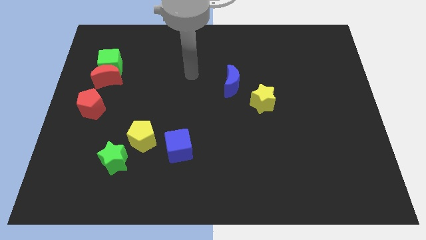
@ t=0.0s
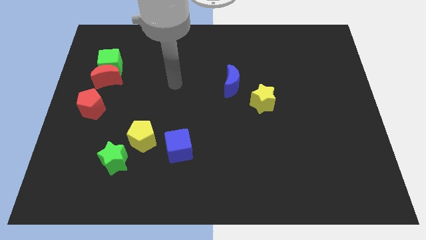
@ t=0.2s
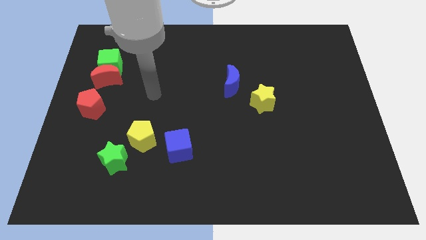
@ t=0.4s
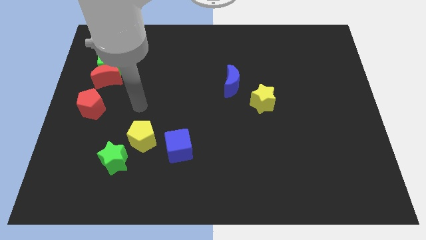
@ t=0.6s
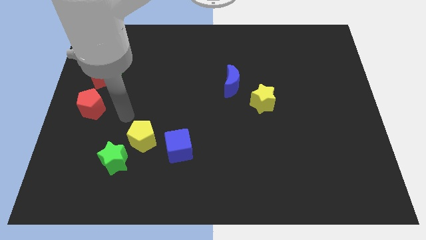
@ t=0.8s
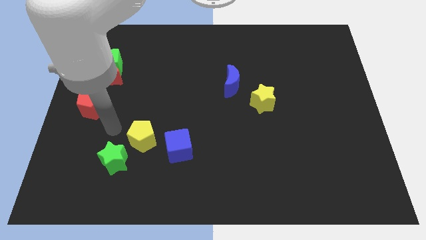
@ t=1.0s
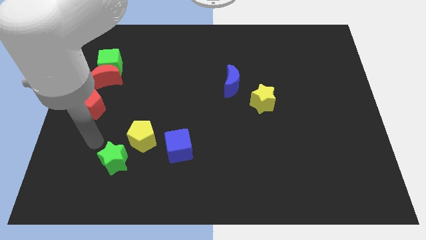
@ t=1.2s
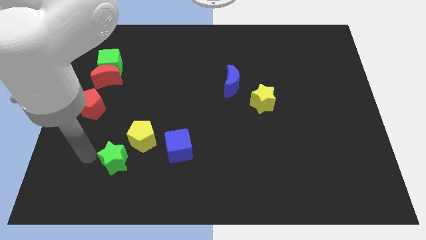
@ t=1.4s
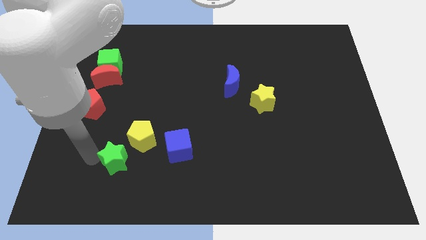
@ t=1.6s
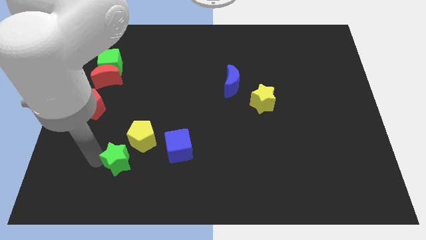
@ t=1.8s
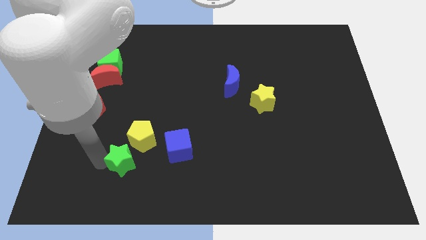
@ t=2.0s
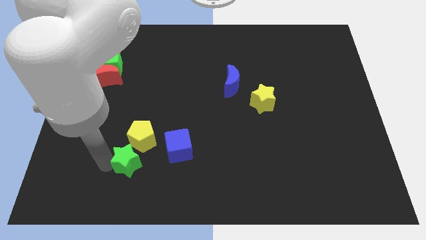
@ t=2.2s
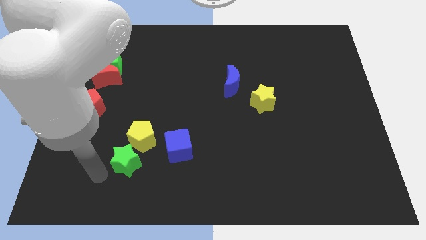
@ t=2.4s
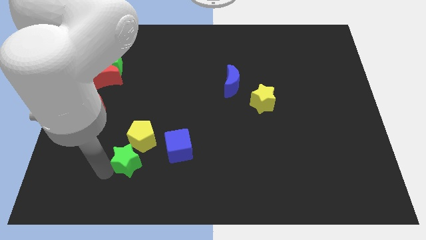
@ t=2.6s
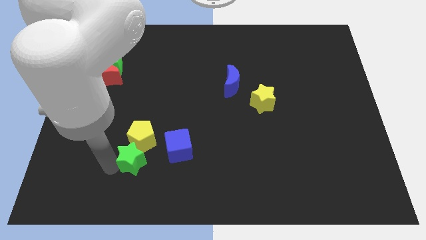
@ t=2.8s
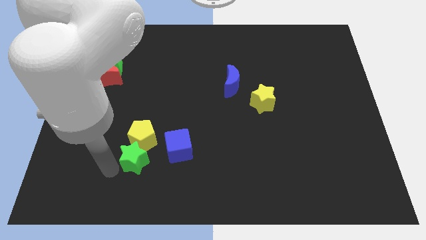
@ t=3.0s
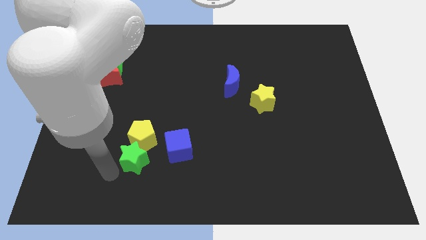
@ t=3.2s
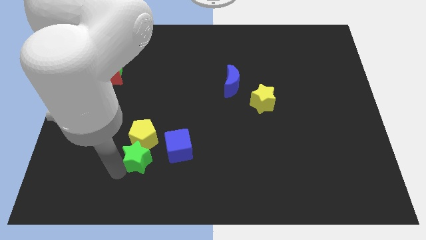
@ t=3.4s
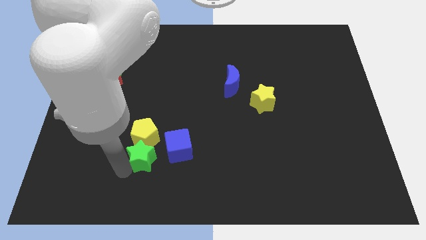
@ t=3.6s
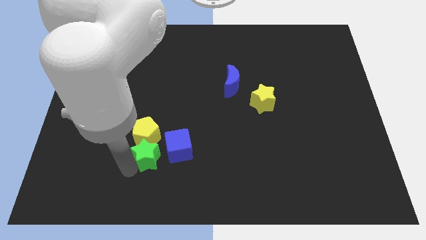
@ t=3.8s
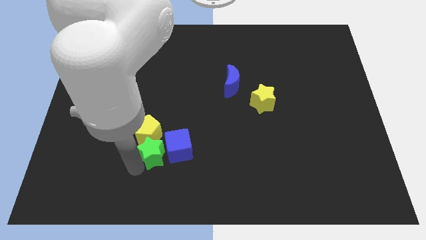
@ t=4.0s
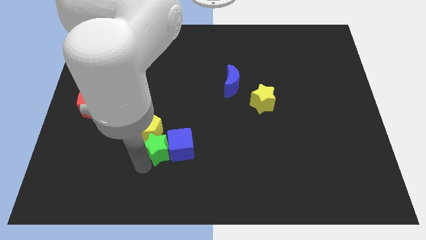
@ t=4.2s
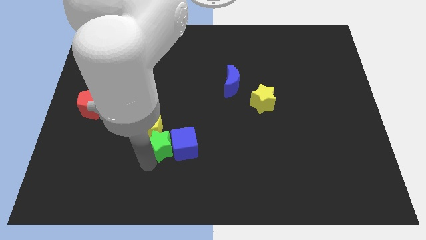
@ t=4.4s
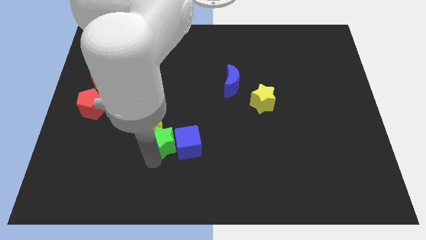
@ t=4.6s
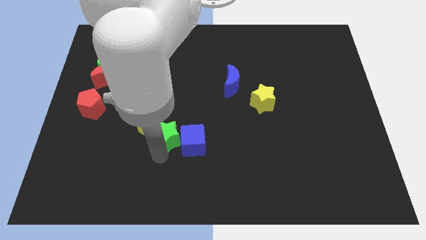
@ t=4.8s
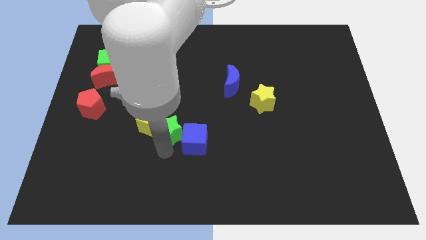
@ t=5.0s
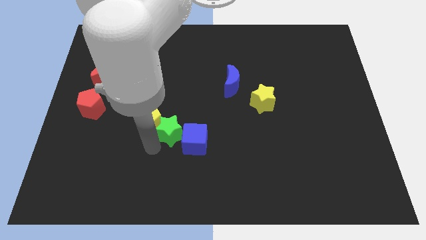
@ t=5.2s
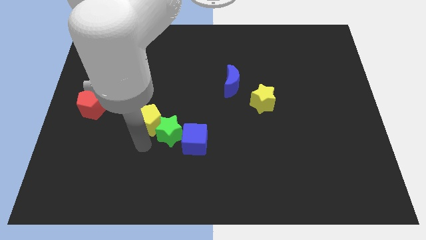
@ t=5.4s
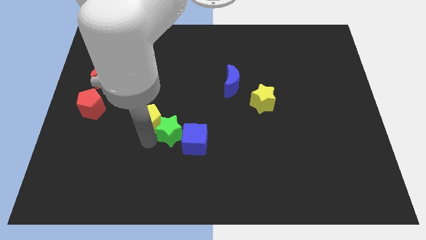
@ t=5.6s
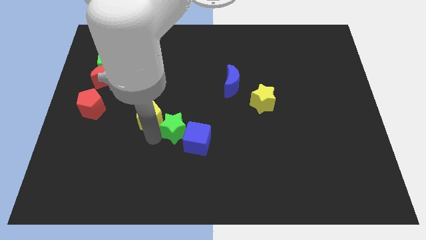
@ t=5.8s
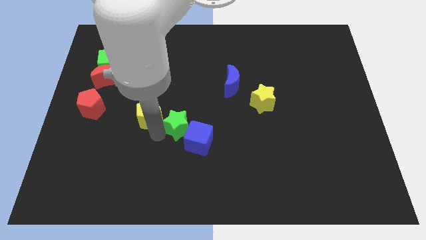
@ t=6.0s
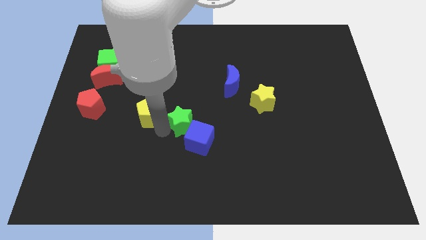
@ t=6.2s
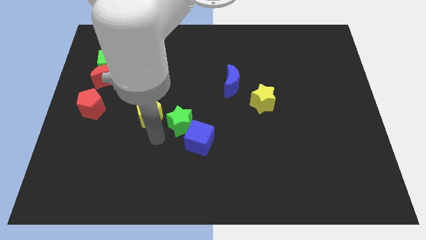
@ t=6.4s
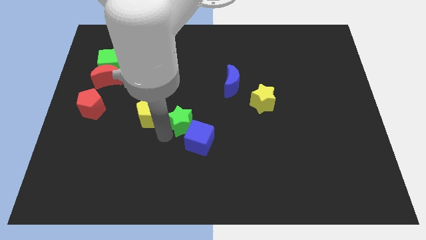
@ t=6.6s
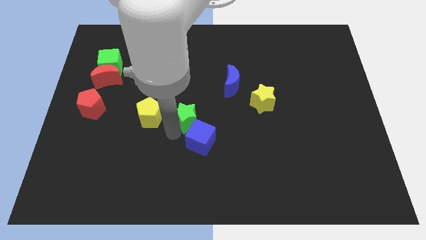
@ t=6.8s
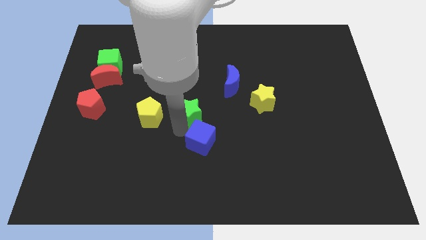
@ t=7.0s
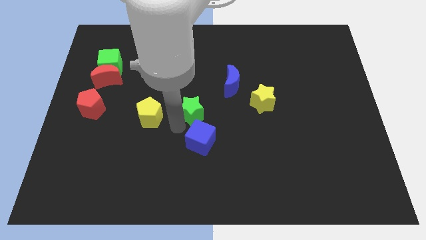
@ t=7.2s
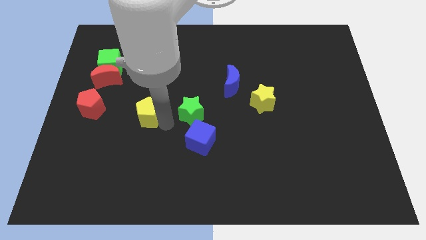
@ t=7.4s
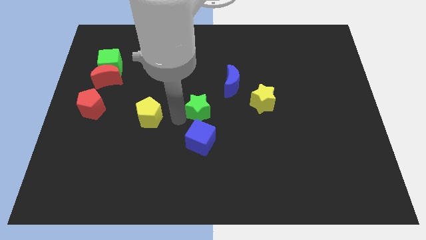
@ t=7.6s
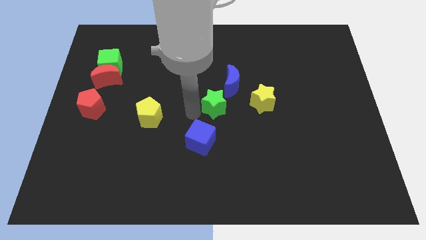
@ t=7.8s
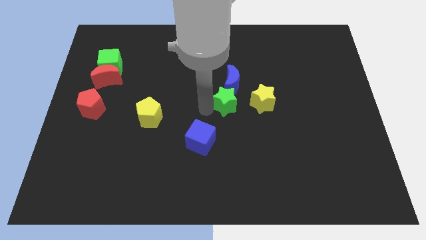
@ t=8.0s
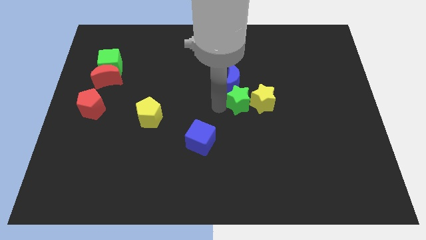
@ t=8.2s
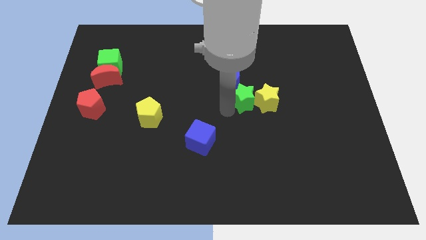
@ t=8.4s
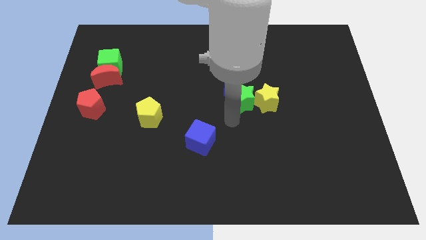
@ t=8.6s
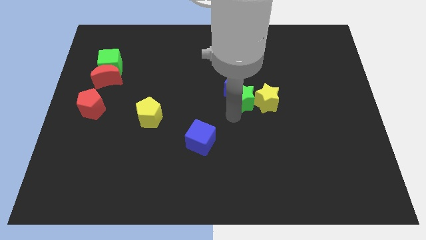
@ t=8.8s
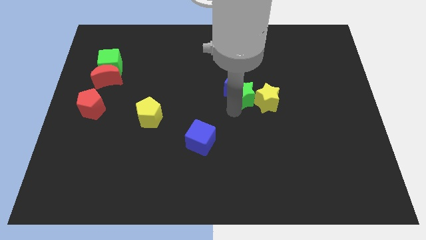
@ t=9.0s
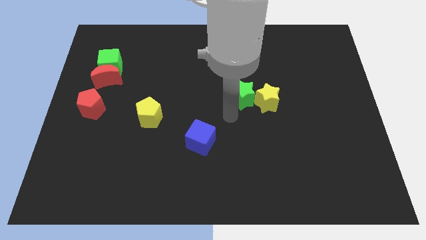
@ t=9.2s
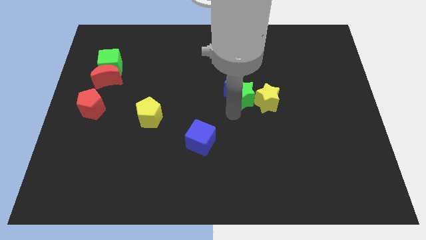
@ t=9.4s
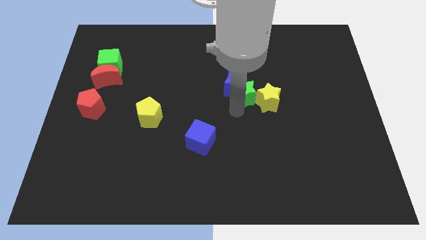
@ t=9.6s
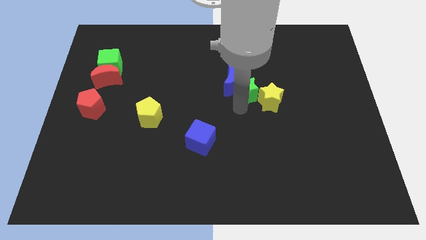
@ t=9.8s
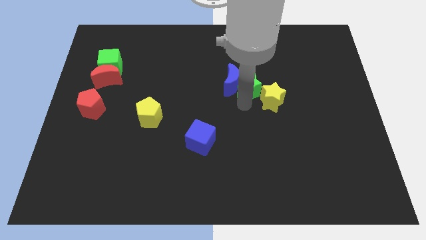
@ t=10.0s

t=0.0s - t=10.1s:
push the green star to the top right of the blue moon

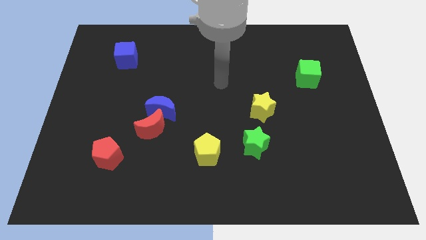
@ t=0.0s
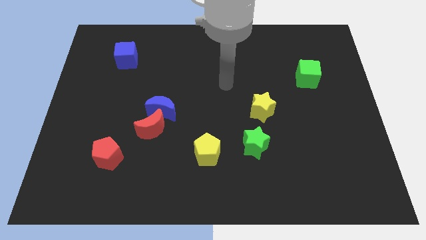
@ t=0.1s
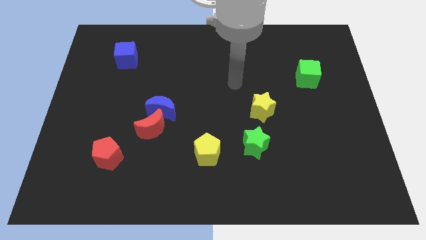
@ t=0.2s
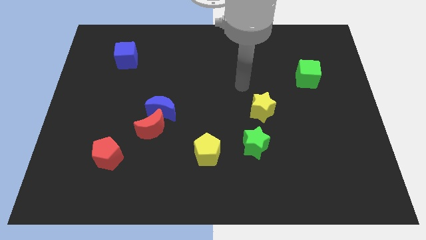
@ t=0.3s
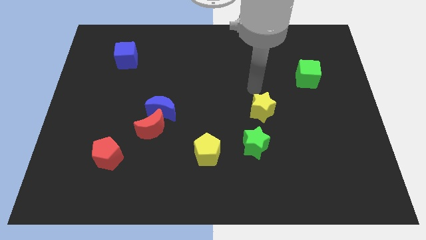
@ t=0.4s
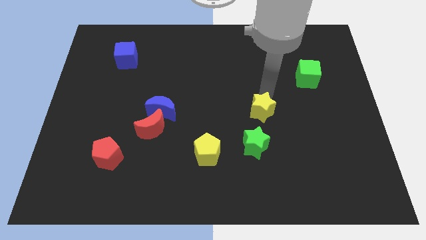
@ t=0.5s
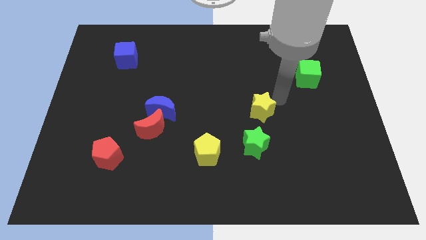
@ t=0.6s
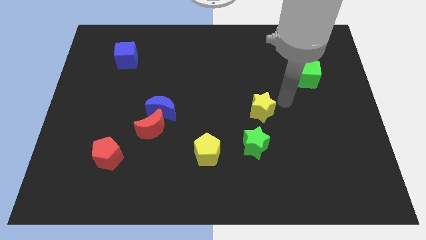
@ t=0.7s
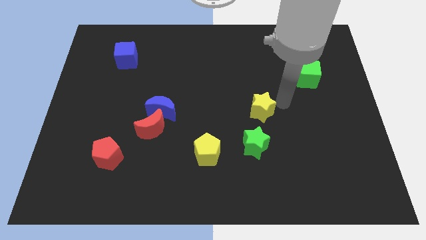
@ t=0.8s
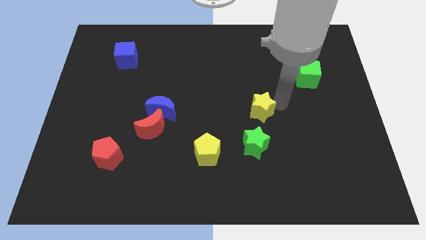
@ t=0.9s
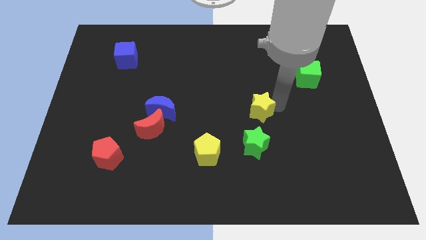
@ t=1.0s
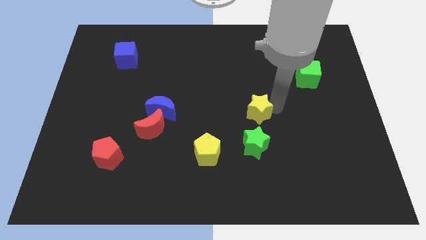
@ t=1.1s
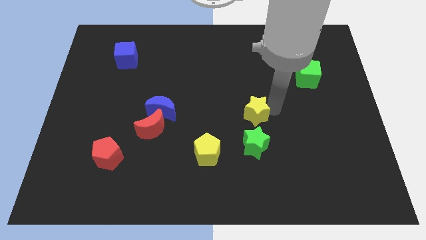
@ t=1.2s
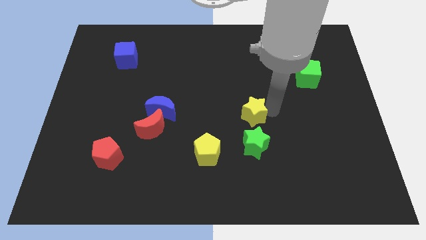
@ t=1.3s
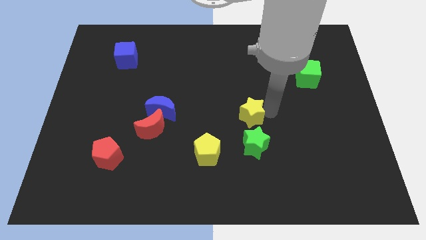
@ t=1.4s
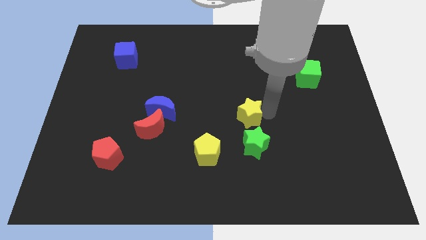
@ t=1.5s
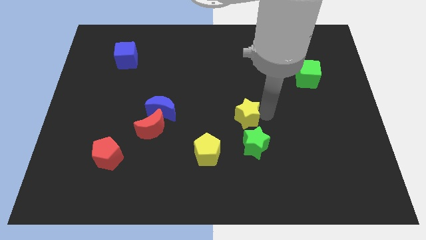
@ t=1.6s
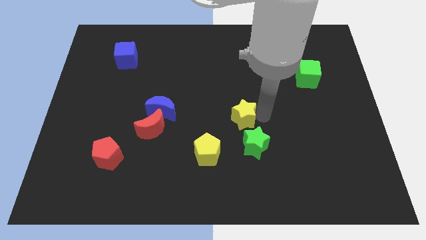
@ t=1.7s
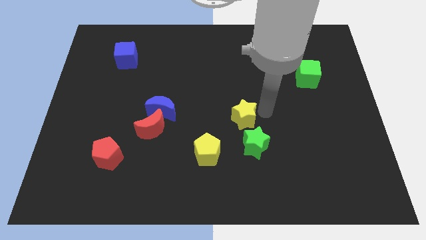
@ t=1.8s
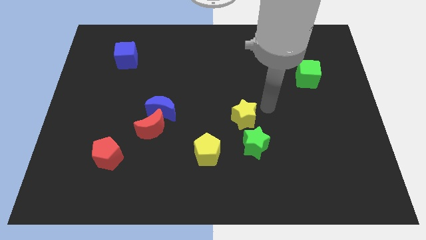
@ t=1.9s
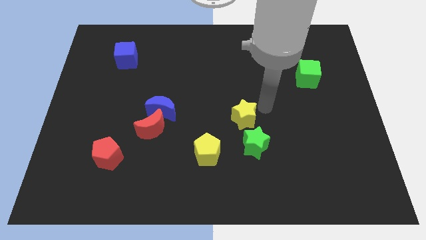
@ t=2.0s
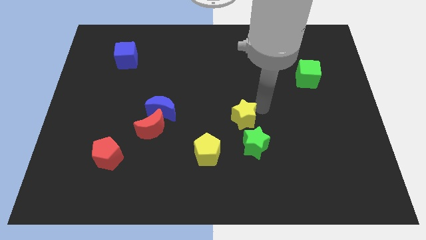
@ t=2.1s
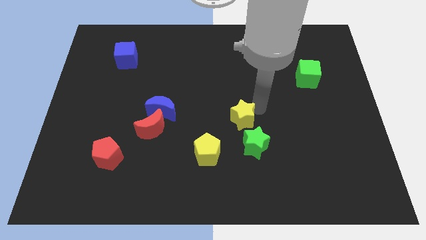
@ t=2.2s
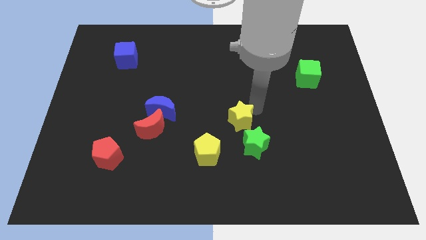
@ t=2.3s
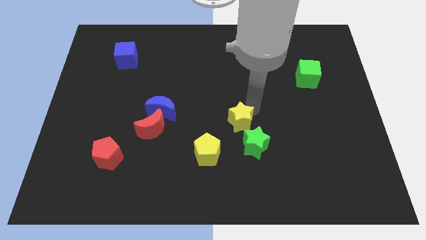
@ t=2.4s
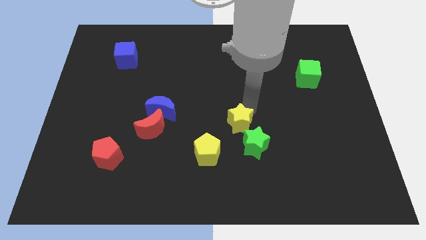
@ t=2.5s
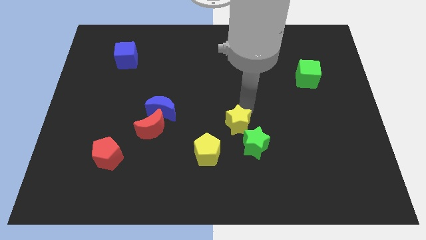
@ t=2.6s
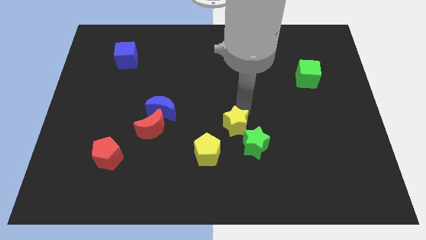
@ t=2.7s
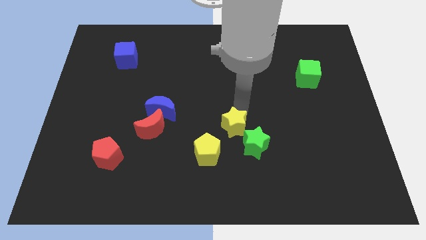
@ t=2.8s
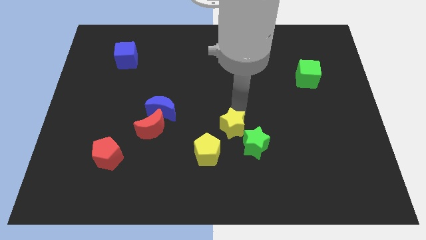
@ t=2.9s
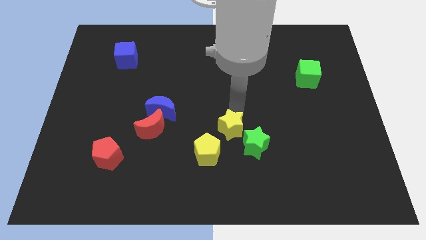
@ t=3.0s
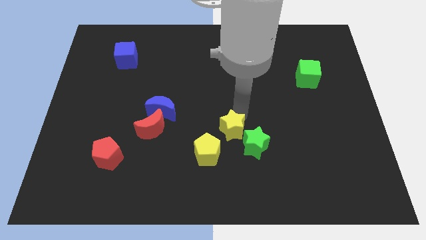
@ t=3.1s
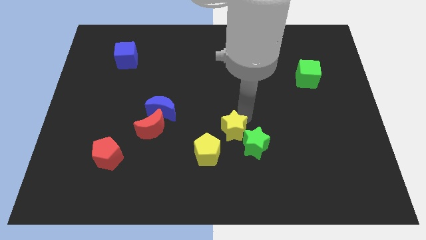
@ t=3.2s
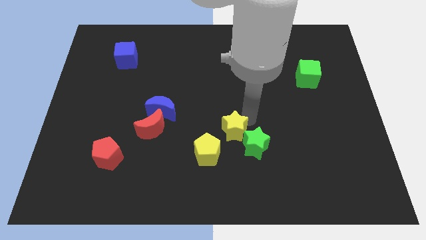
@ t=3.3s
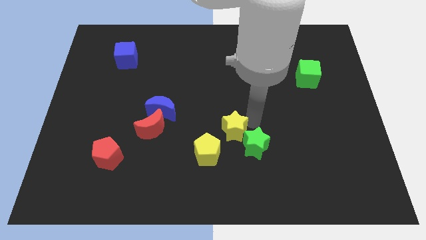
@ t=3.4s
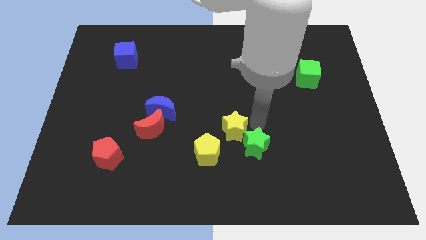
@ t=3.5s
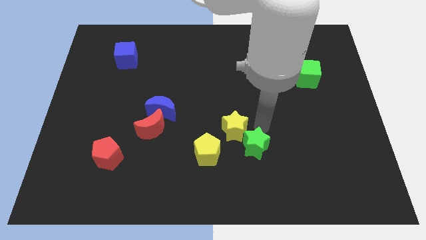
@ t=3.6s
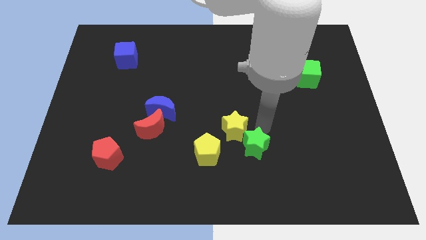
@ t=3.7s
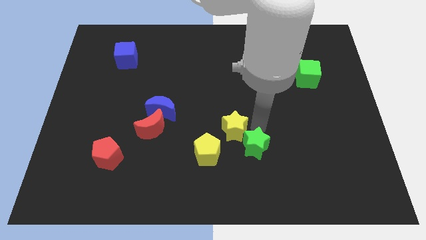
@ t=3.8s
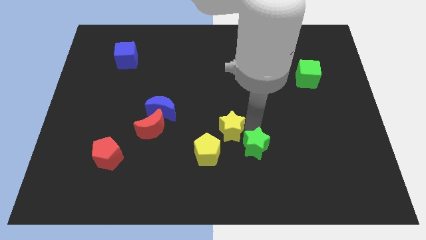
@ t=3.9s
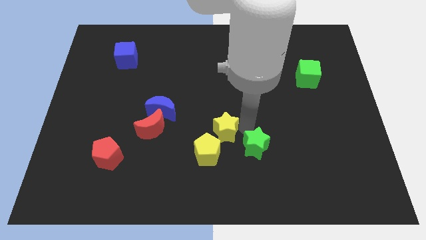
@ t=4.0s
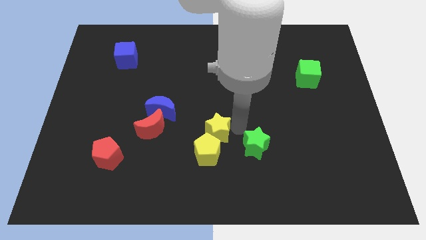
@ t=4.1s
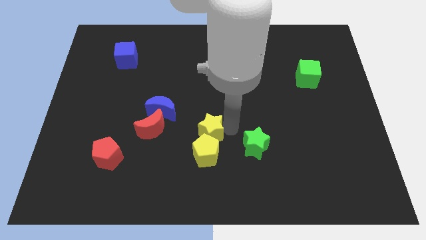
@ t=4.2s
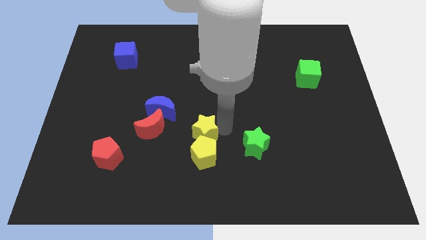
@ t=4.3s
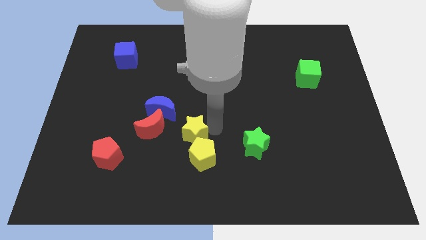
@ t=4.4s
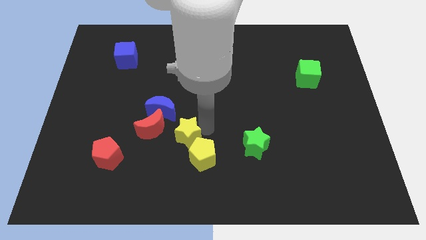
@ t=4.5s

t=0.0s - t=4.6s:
slide the yellow star to the bottom right side of the red moon
